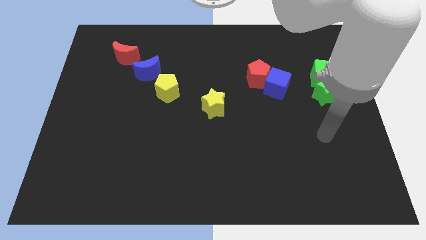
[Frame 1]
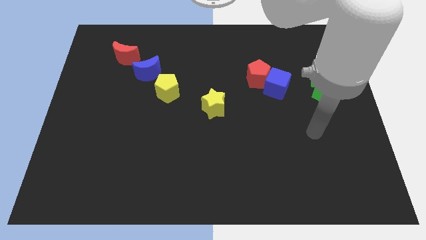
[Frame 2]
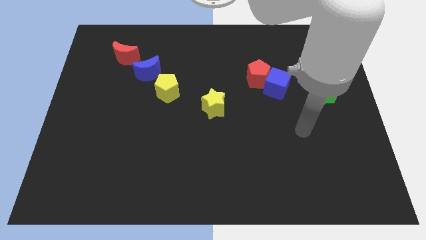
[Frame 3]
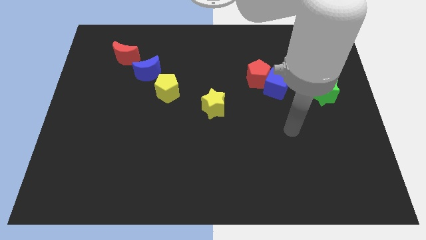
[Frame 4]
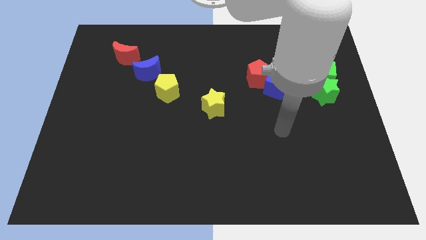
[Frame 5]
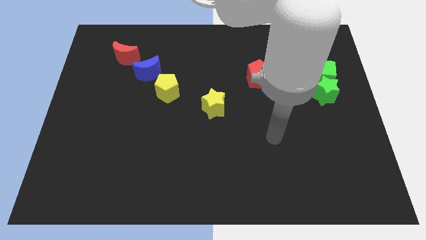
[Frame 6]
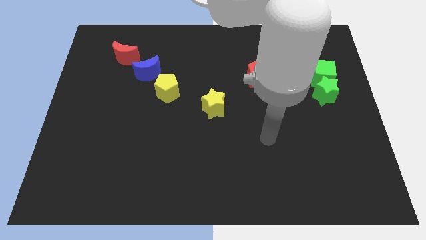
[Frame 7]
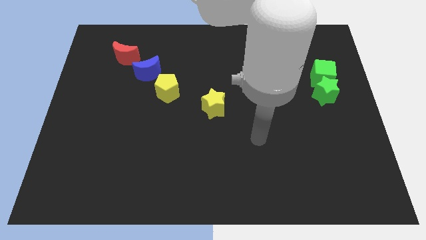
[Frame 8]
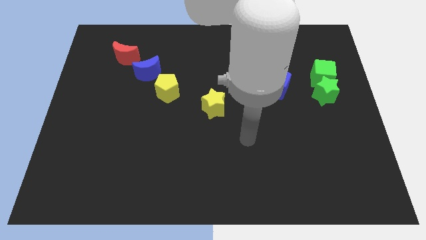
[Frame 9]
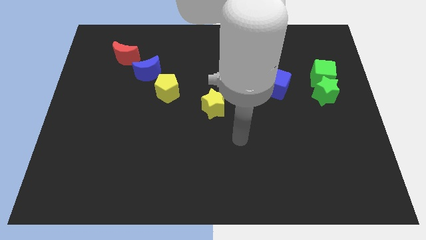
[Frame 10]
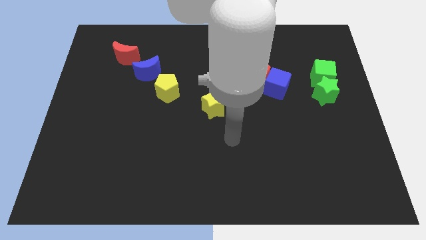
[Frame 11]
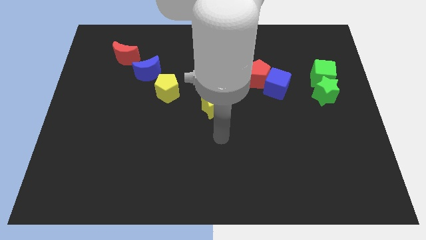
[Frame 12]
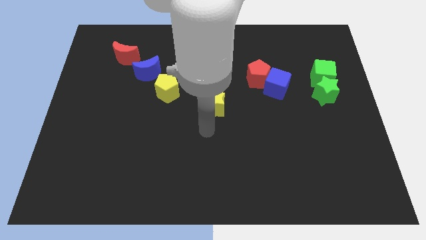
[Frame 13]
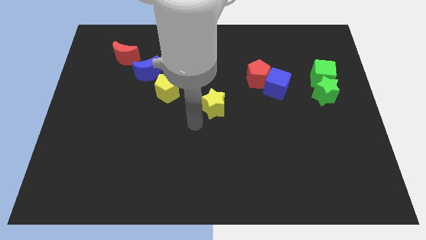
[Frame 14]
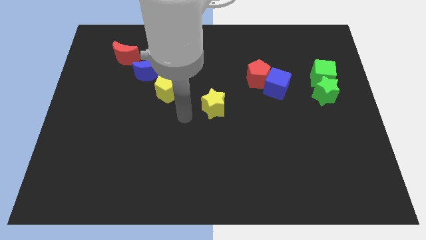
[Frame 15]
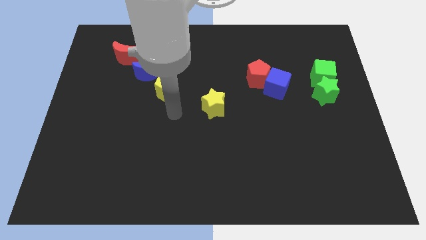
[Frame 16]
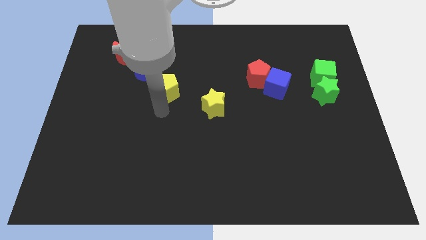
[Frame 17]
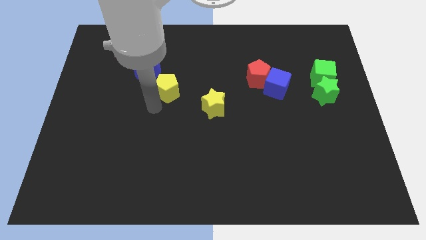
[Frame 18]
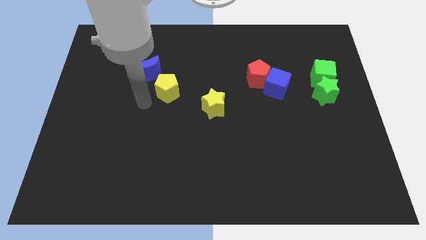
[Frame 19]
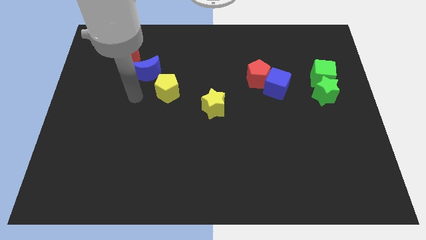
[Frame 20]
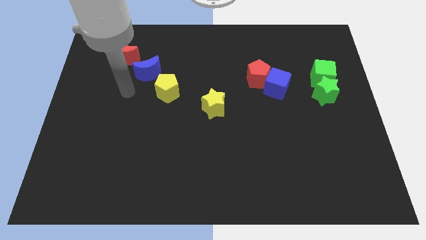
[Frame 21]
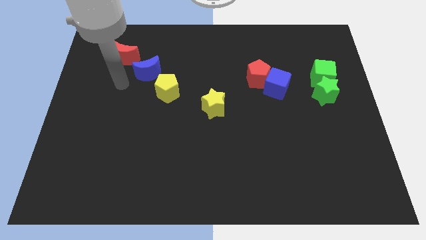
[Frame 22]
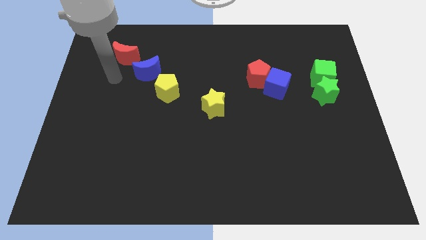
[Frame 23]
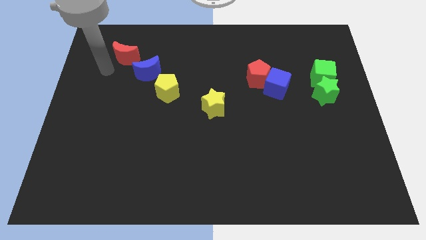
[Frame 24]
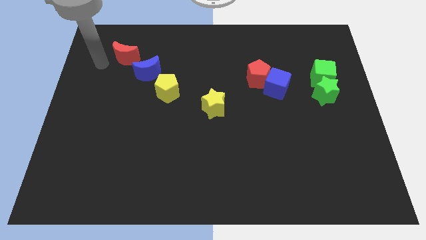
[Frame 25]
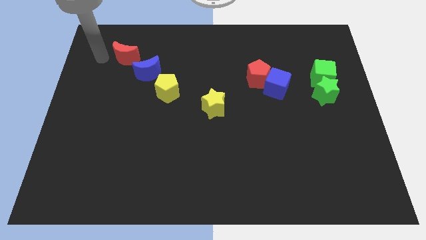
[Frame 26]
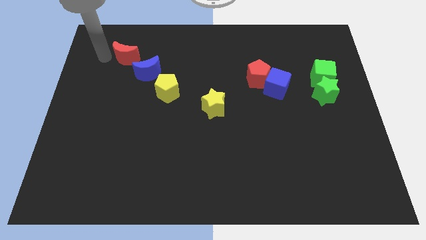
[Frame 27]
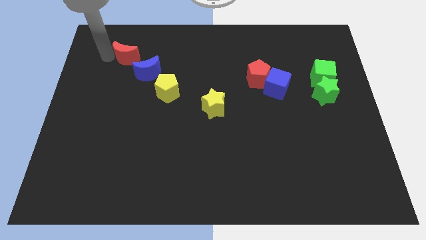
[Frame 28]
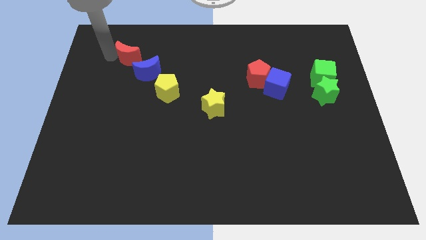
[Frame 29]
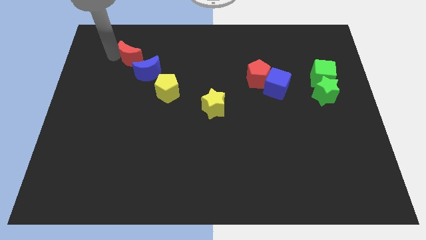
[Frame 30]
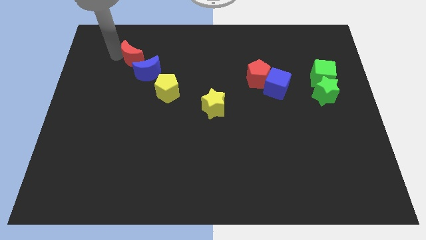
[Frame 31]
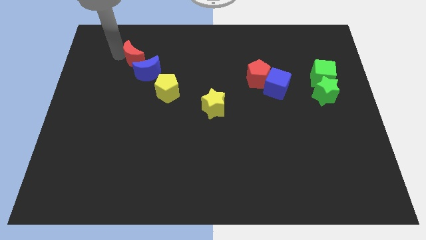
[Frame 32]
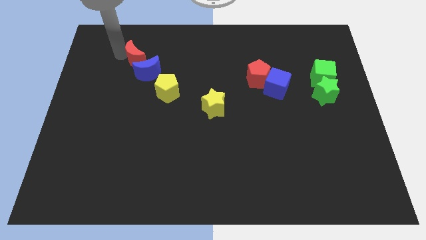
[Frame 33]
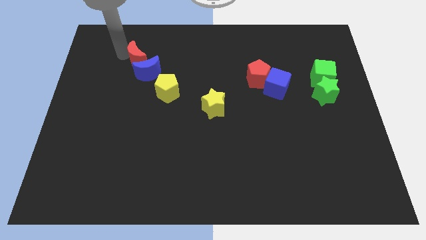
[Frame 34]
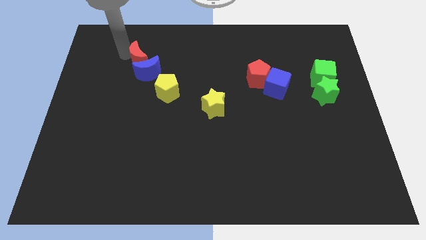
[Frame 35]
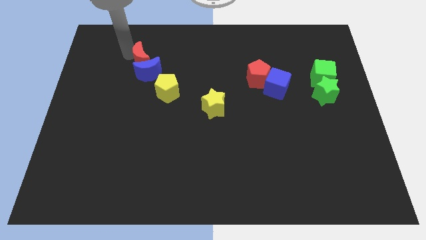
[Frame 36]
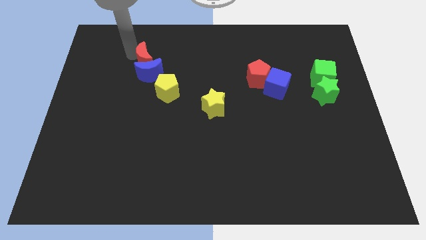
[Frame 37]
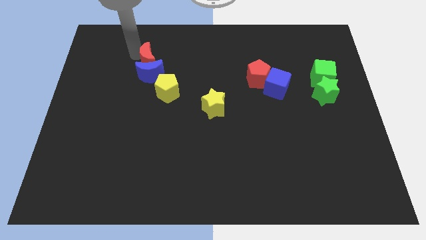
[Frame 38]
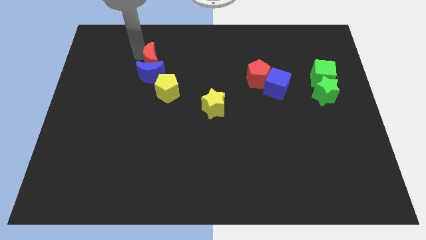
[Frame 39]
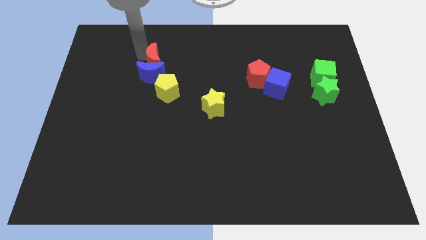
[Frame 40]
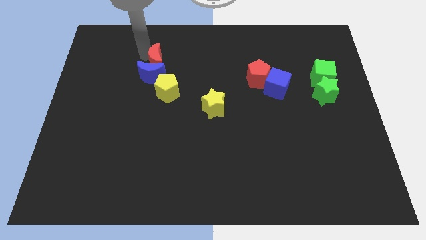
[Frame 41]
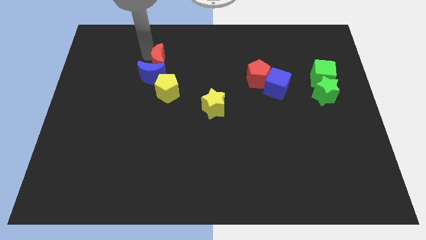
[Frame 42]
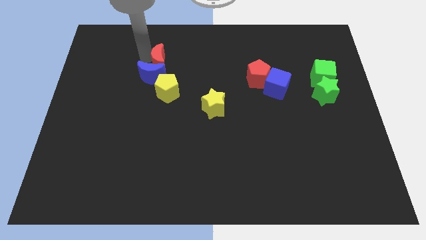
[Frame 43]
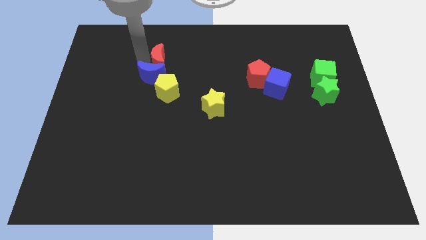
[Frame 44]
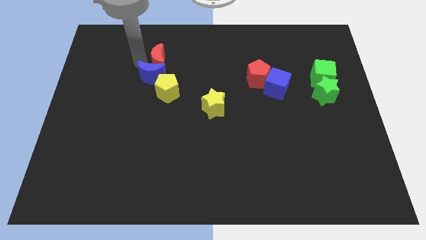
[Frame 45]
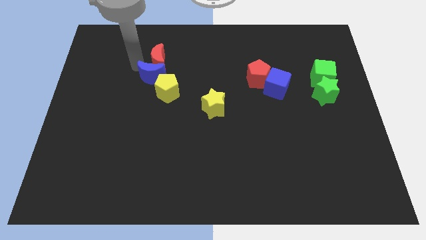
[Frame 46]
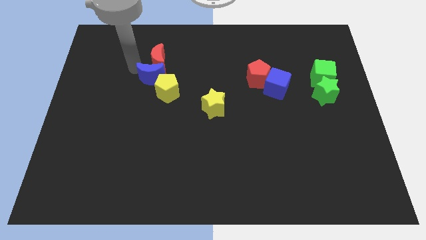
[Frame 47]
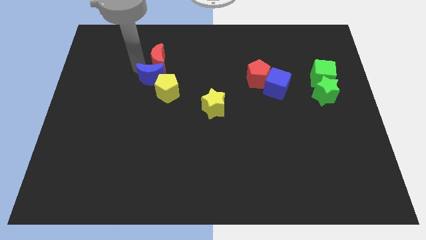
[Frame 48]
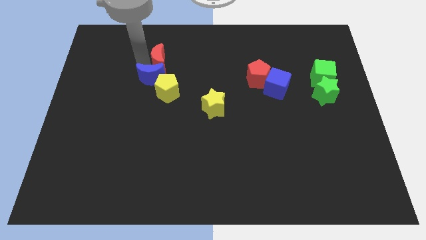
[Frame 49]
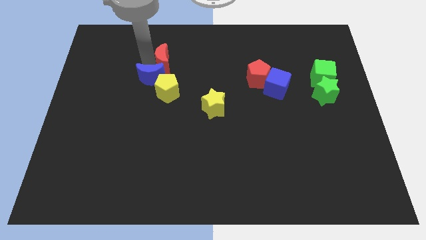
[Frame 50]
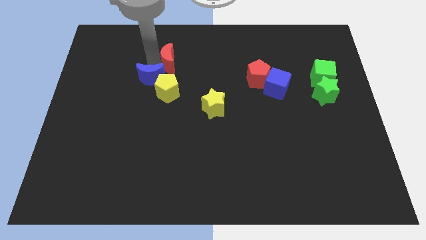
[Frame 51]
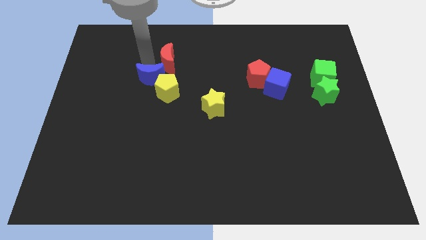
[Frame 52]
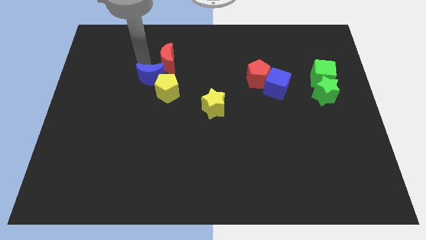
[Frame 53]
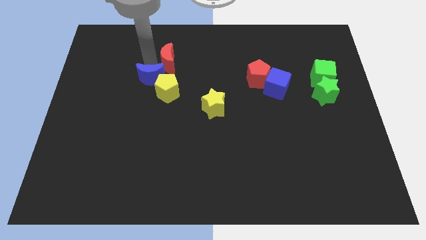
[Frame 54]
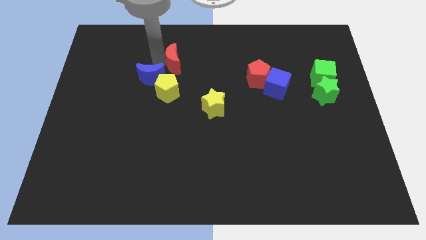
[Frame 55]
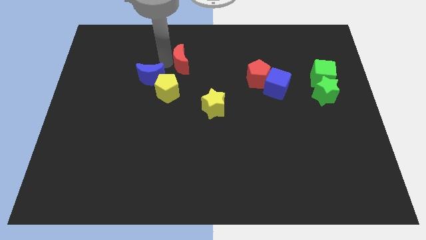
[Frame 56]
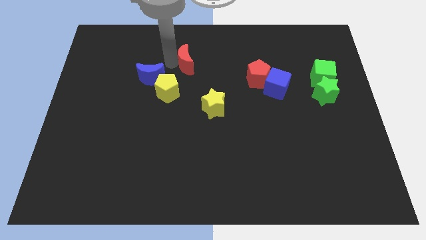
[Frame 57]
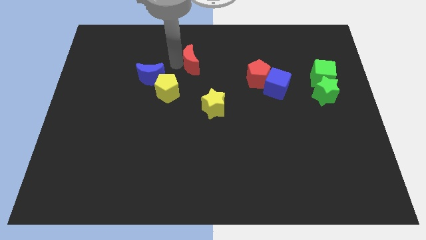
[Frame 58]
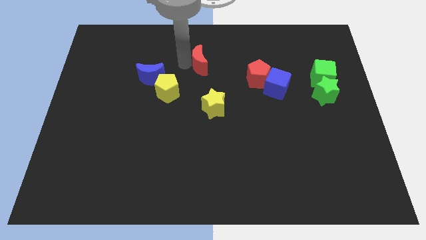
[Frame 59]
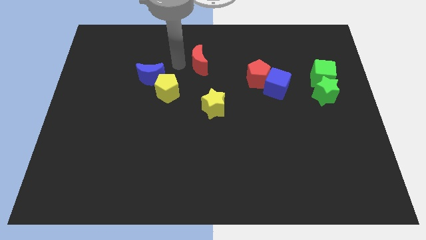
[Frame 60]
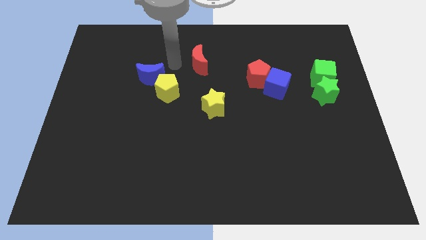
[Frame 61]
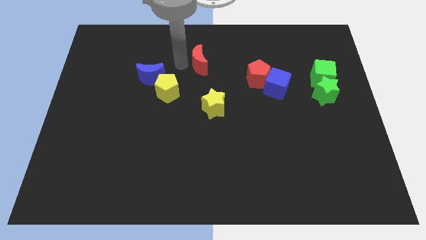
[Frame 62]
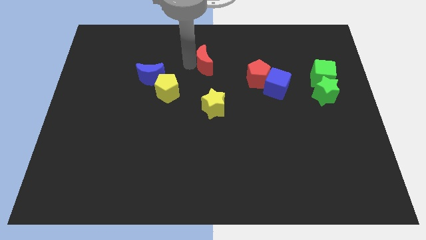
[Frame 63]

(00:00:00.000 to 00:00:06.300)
move the red moon to the right

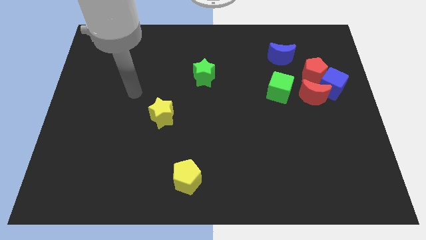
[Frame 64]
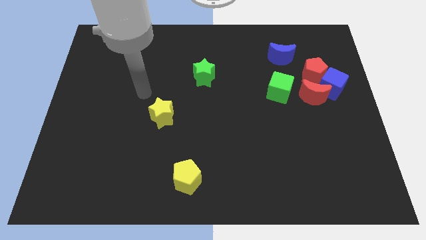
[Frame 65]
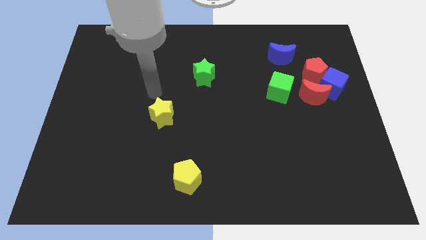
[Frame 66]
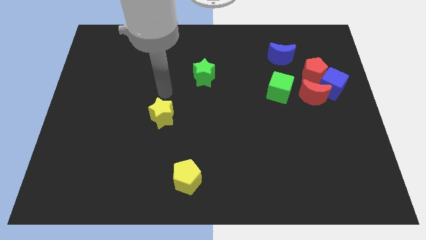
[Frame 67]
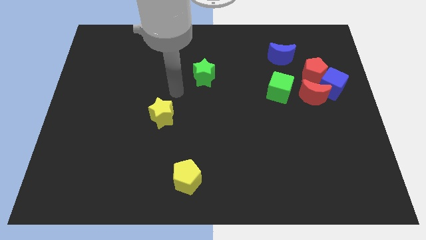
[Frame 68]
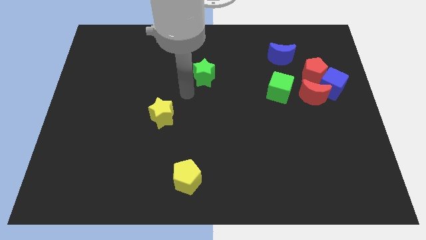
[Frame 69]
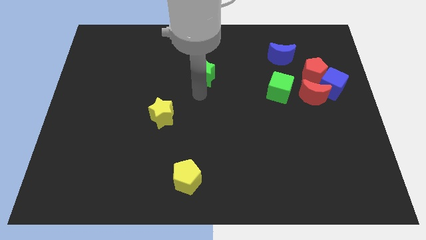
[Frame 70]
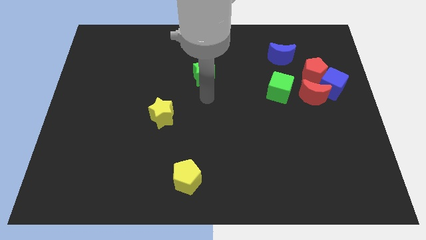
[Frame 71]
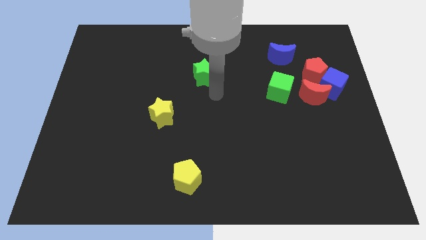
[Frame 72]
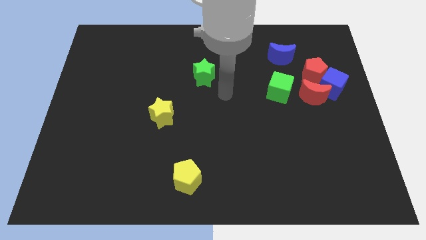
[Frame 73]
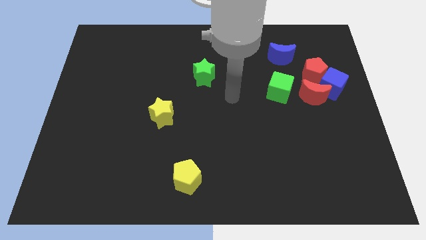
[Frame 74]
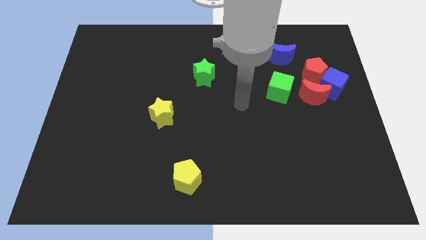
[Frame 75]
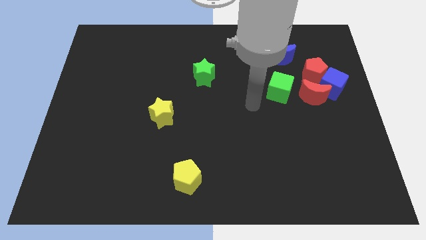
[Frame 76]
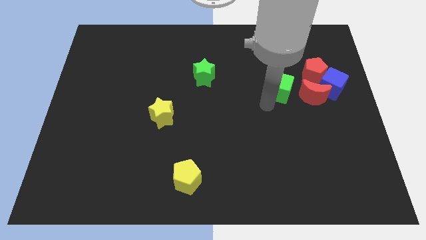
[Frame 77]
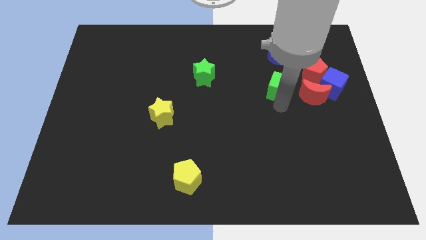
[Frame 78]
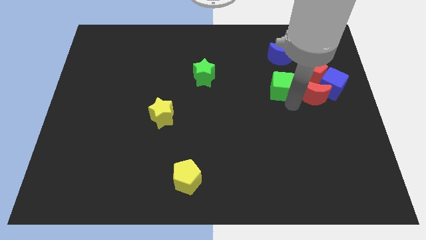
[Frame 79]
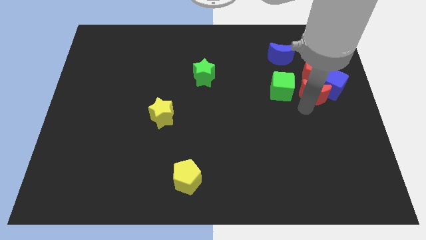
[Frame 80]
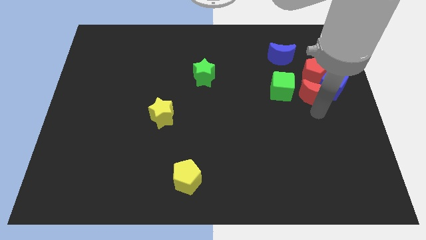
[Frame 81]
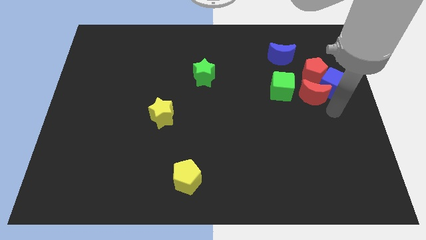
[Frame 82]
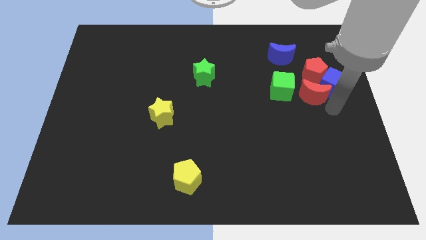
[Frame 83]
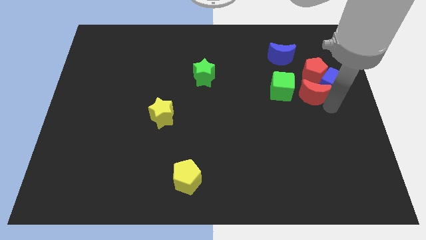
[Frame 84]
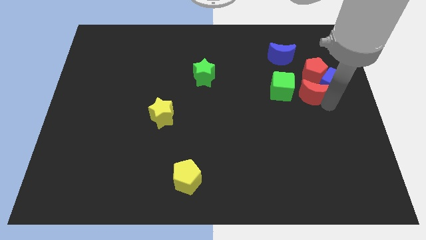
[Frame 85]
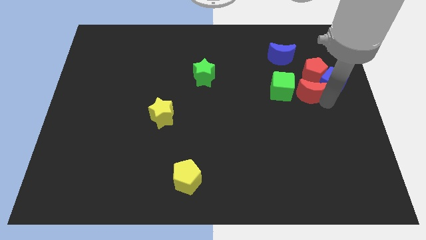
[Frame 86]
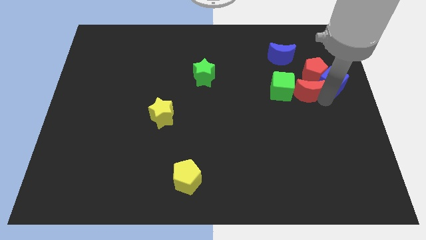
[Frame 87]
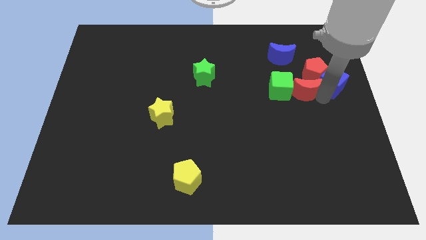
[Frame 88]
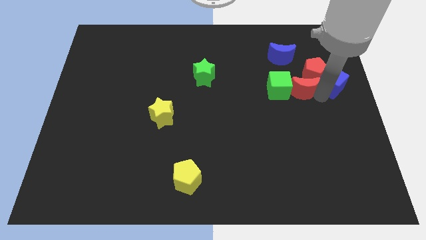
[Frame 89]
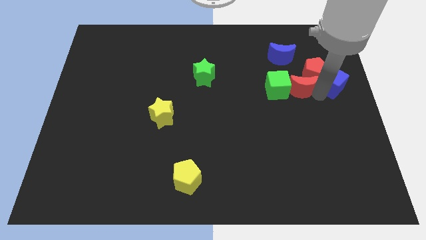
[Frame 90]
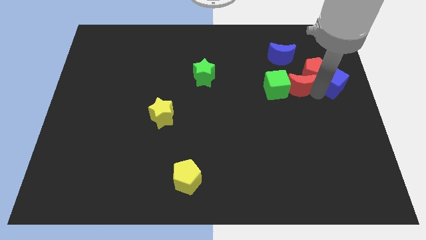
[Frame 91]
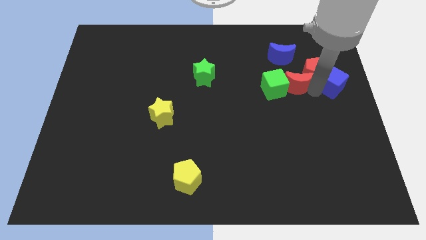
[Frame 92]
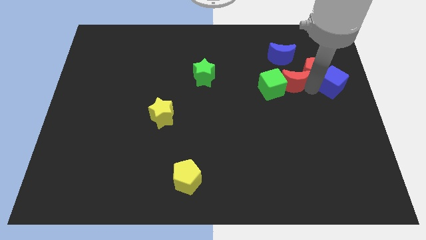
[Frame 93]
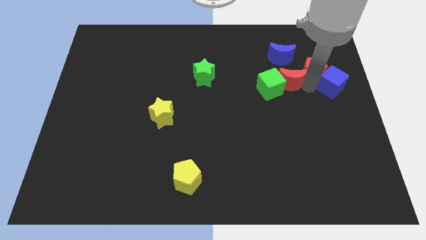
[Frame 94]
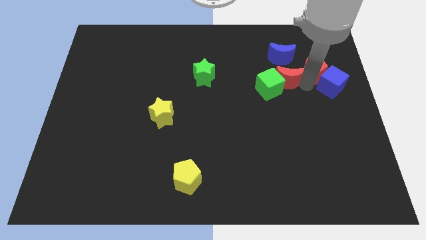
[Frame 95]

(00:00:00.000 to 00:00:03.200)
move the red moon somewhat up and then to the left
